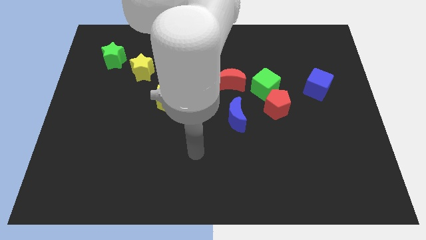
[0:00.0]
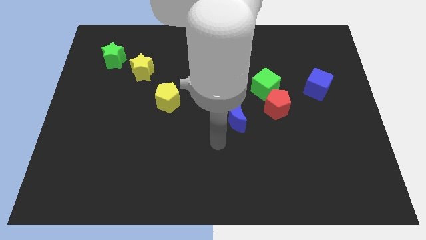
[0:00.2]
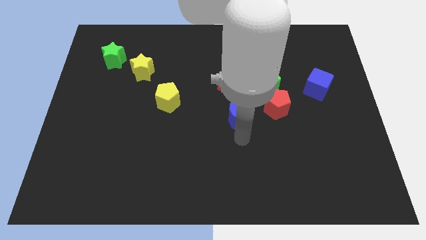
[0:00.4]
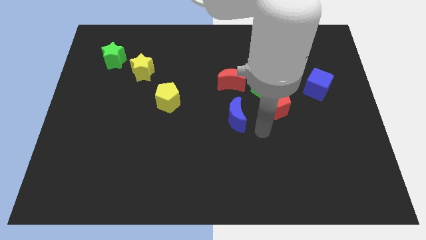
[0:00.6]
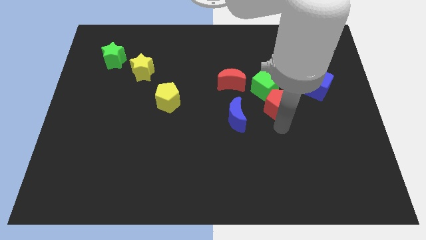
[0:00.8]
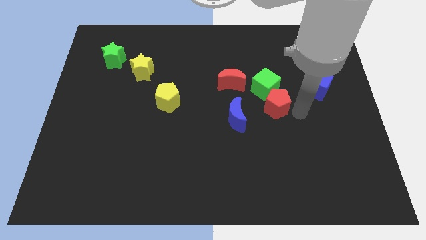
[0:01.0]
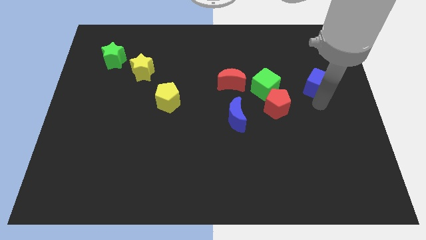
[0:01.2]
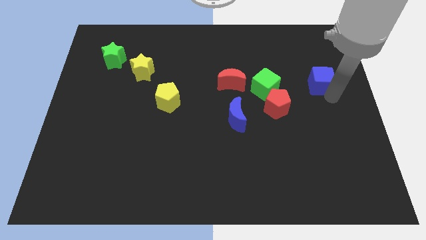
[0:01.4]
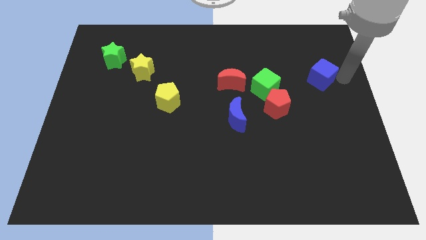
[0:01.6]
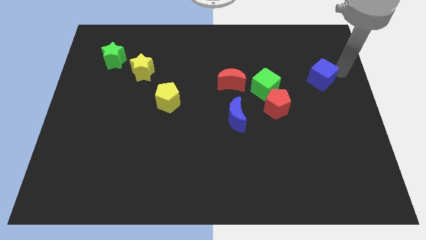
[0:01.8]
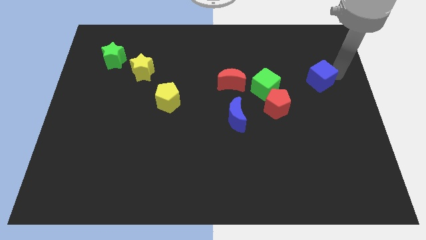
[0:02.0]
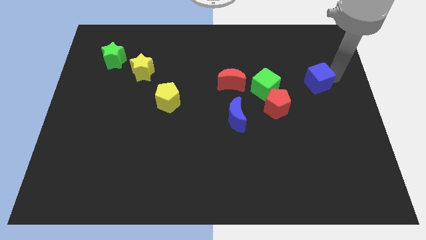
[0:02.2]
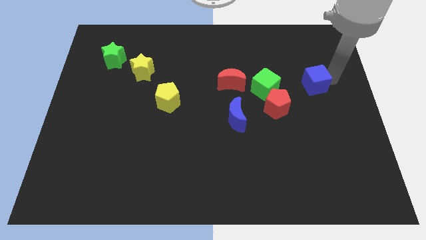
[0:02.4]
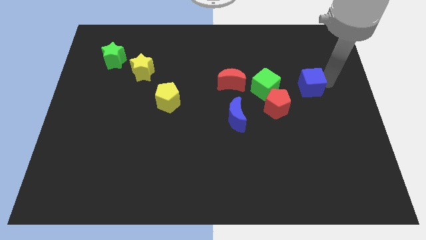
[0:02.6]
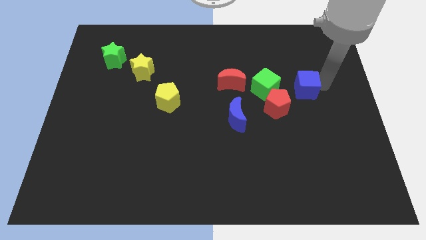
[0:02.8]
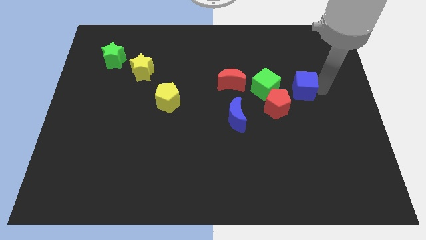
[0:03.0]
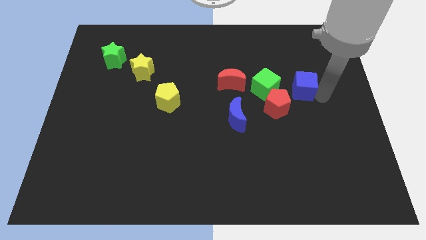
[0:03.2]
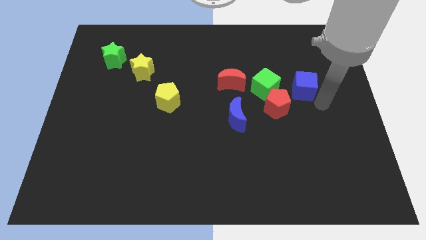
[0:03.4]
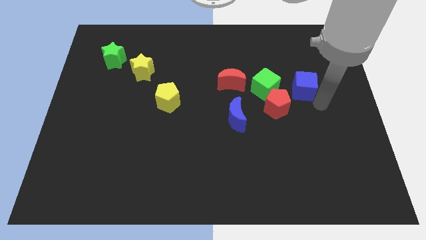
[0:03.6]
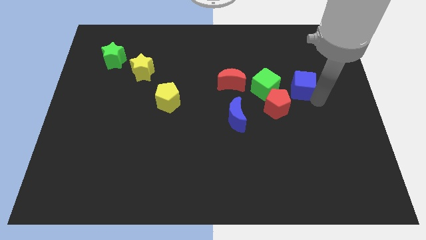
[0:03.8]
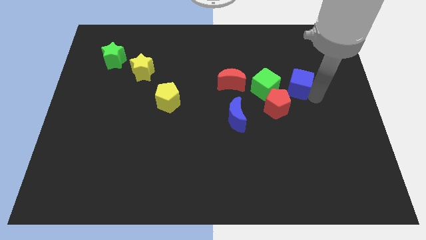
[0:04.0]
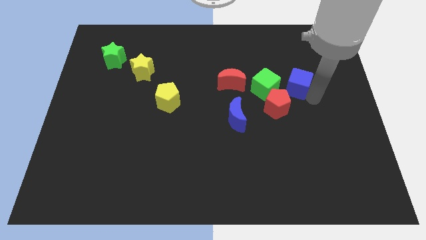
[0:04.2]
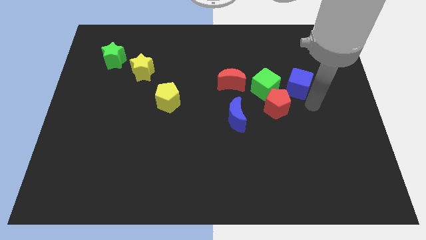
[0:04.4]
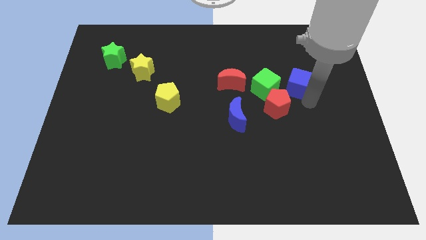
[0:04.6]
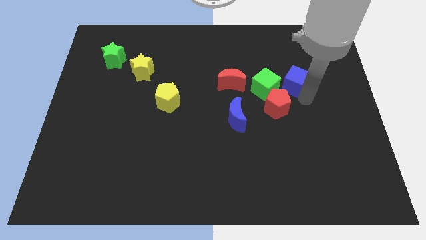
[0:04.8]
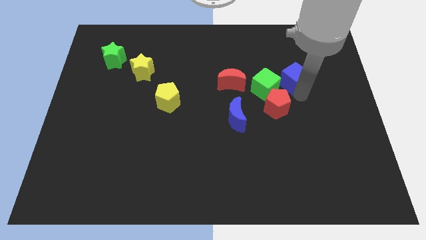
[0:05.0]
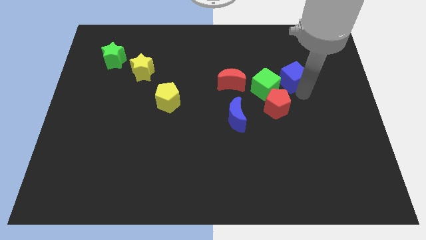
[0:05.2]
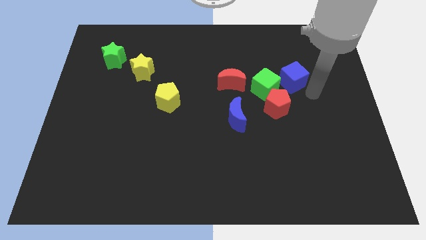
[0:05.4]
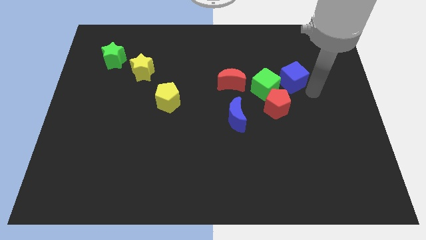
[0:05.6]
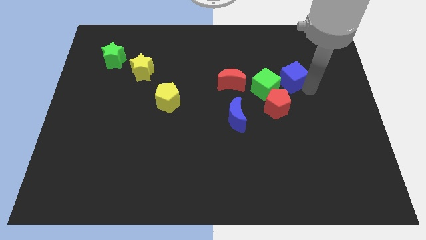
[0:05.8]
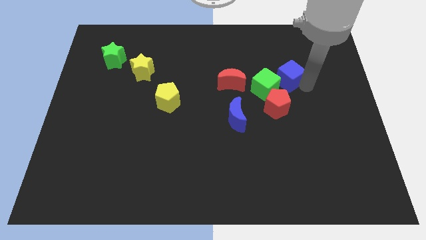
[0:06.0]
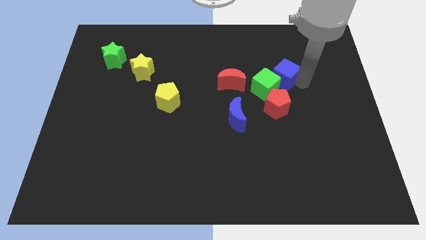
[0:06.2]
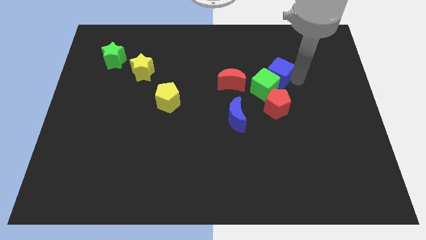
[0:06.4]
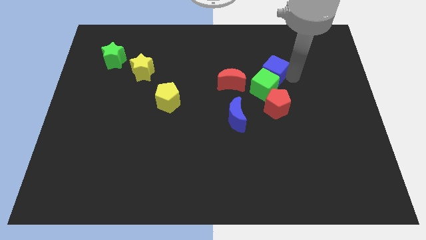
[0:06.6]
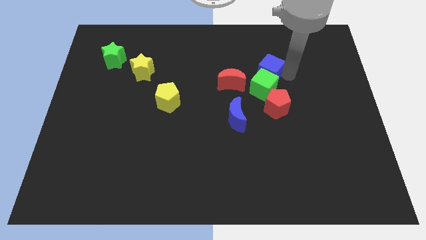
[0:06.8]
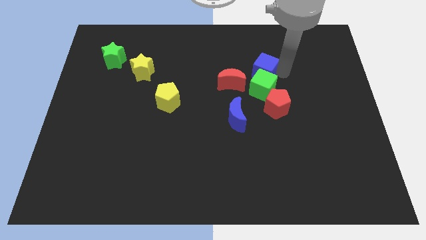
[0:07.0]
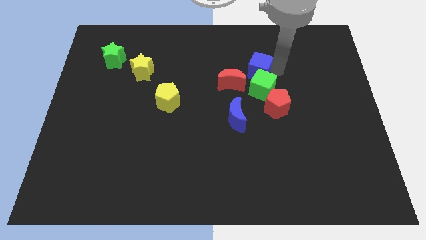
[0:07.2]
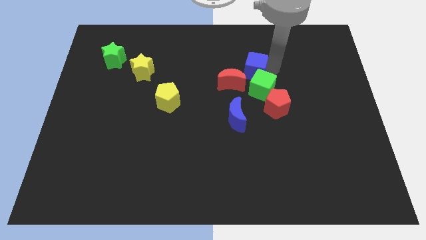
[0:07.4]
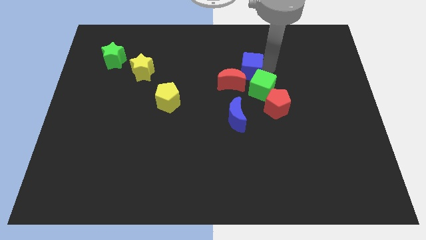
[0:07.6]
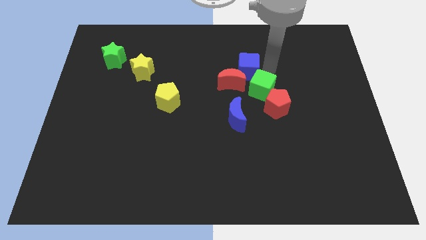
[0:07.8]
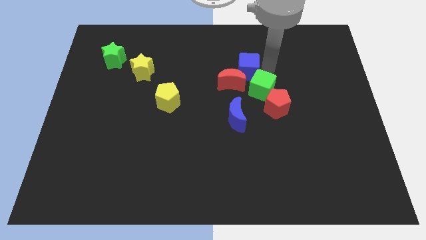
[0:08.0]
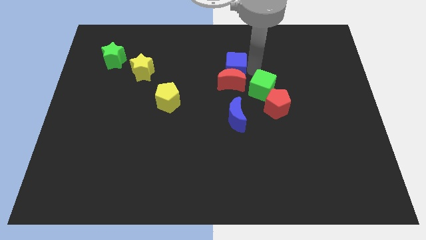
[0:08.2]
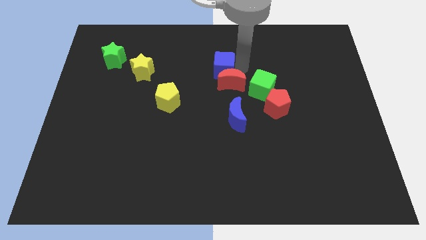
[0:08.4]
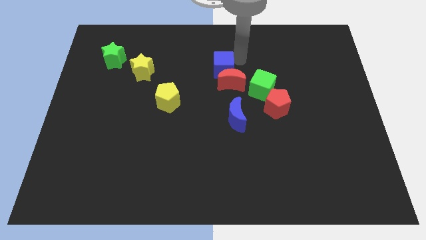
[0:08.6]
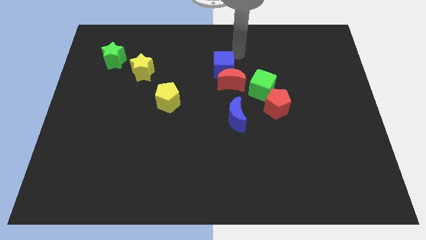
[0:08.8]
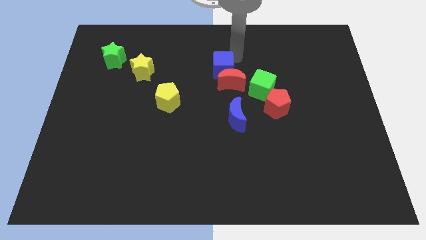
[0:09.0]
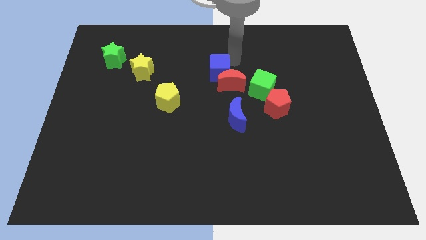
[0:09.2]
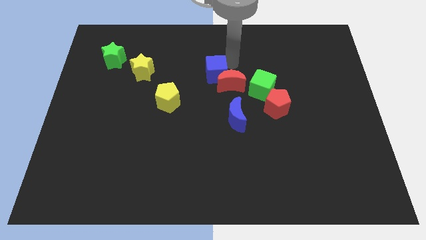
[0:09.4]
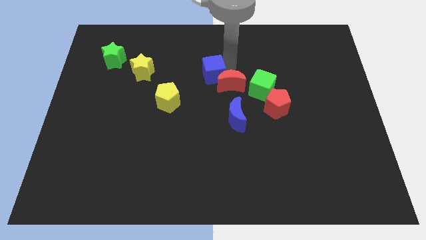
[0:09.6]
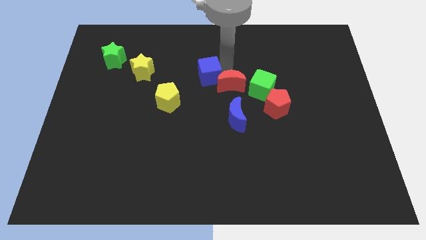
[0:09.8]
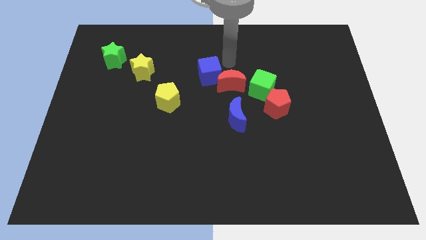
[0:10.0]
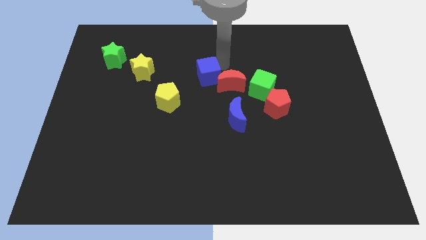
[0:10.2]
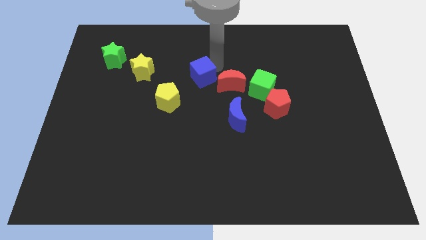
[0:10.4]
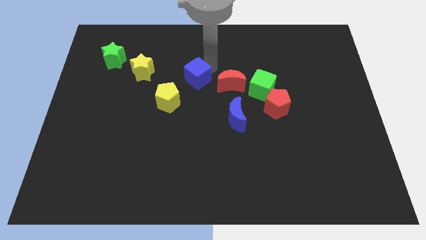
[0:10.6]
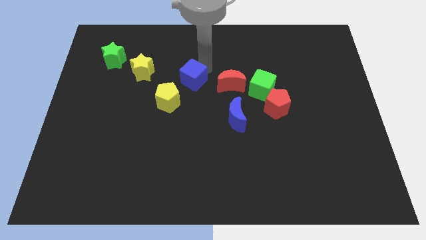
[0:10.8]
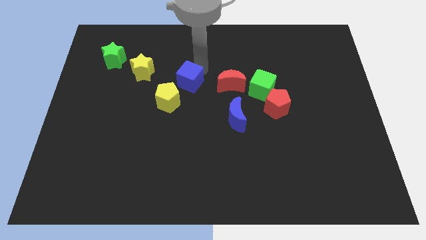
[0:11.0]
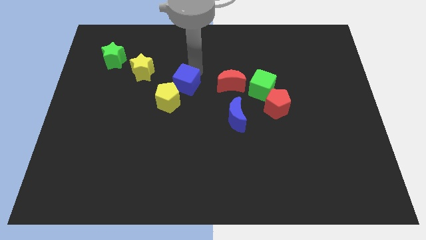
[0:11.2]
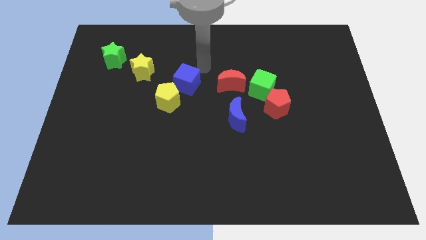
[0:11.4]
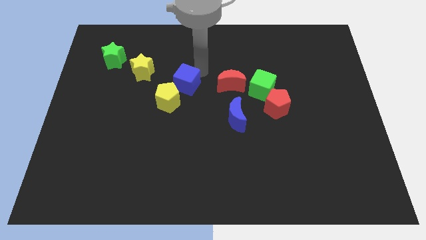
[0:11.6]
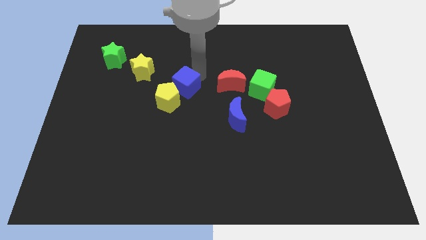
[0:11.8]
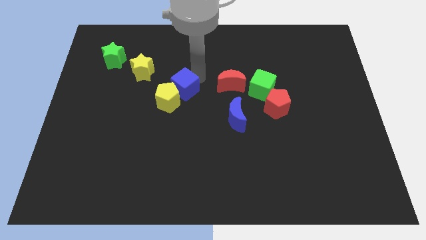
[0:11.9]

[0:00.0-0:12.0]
move the blue cube close to the yellow pentagon
